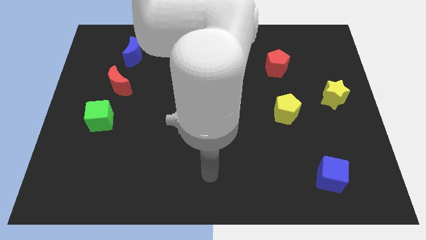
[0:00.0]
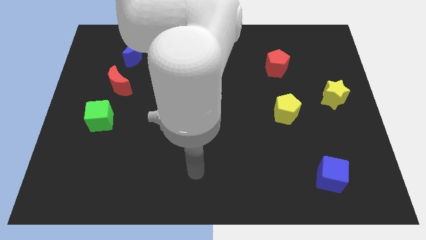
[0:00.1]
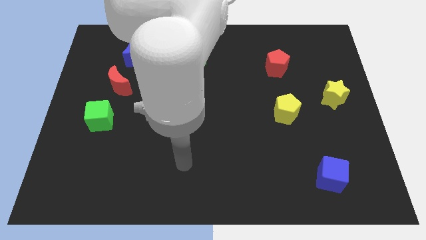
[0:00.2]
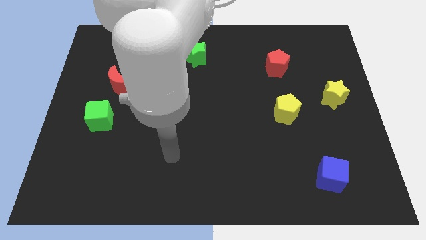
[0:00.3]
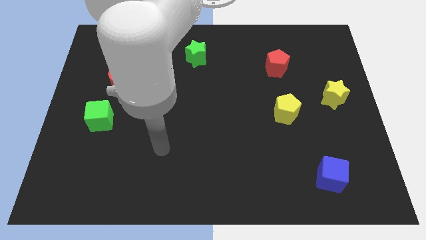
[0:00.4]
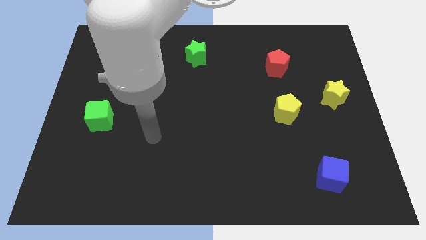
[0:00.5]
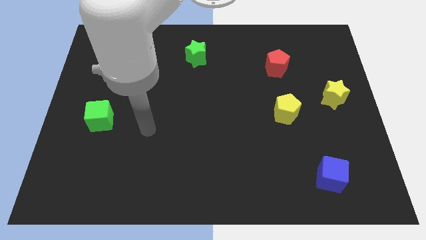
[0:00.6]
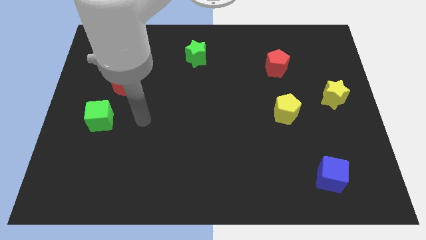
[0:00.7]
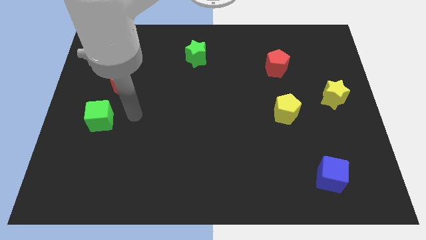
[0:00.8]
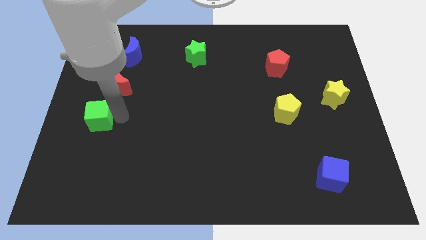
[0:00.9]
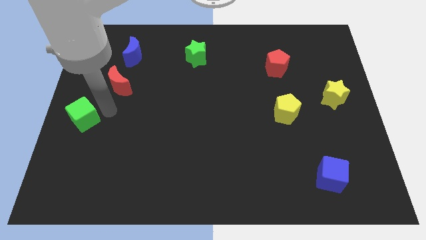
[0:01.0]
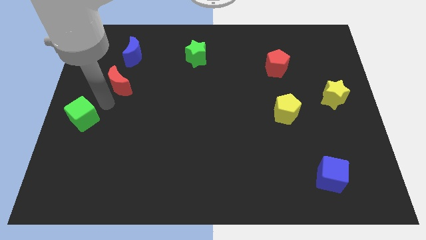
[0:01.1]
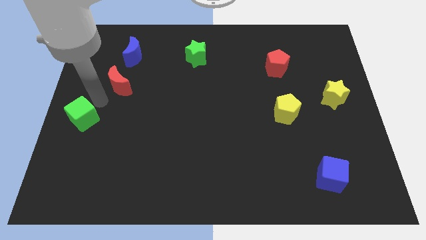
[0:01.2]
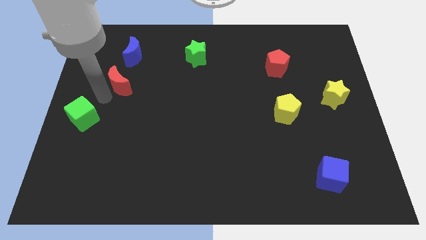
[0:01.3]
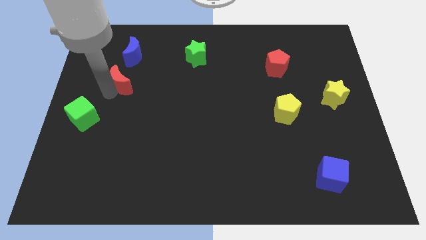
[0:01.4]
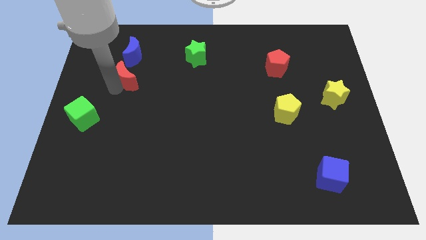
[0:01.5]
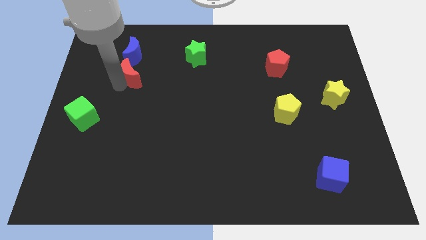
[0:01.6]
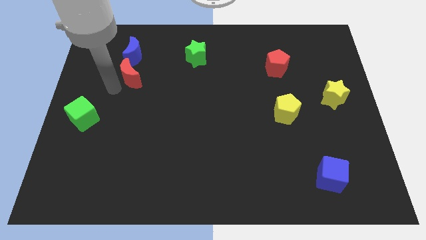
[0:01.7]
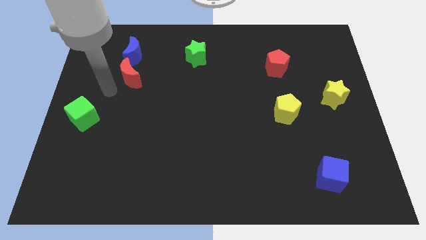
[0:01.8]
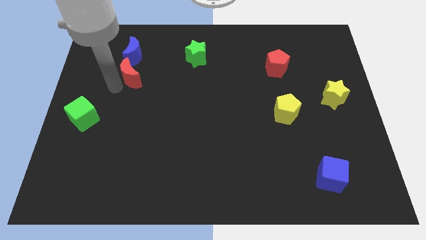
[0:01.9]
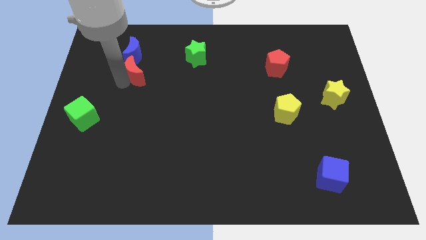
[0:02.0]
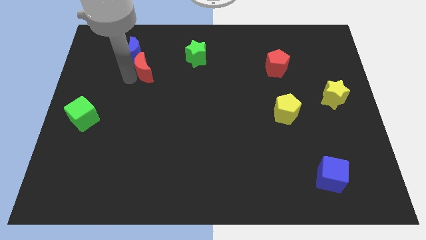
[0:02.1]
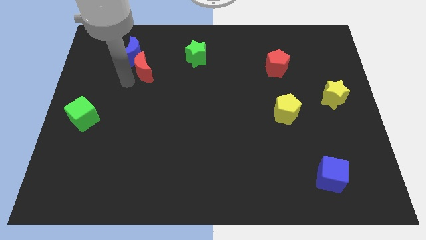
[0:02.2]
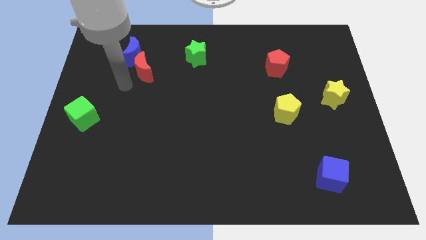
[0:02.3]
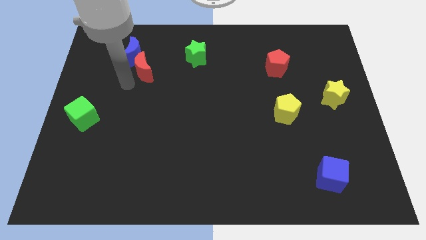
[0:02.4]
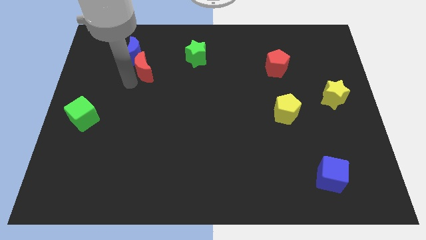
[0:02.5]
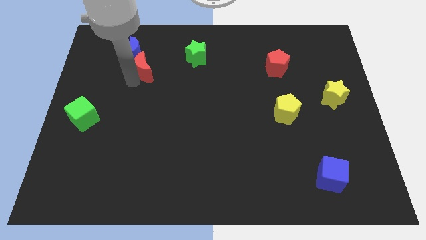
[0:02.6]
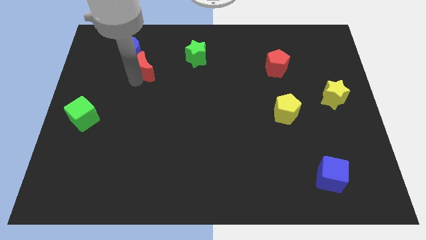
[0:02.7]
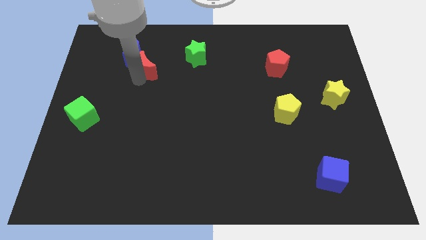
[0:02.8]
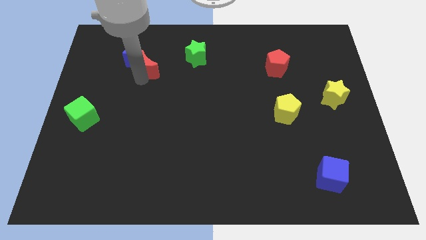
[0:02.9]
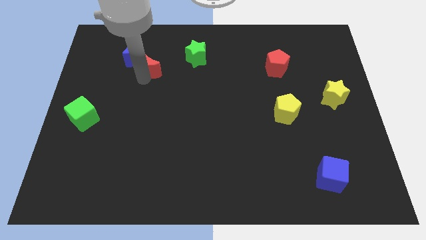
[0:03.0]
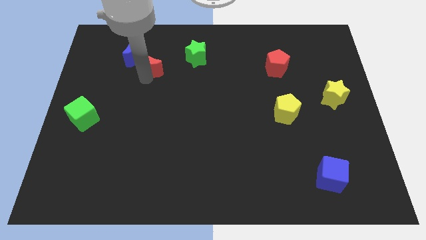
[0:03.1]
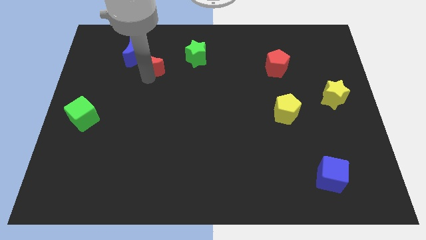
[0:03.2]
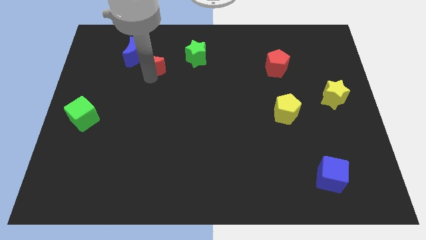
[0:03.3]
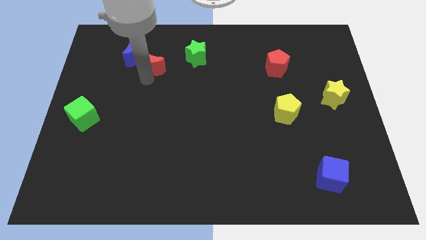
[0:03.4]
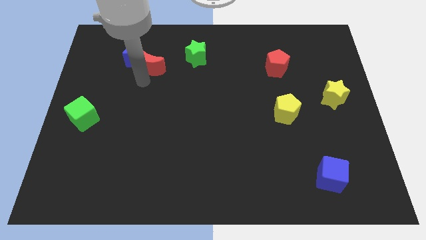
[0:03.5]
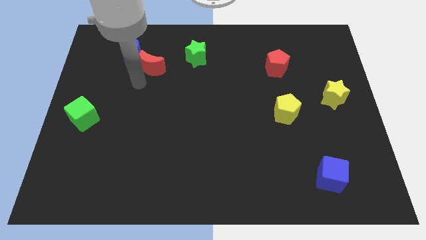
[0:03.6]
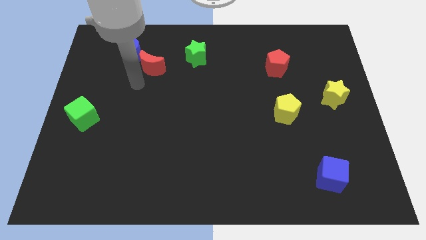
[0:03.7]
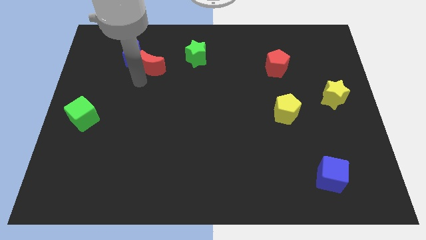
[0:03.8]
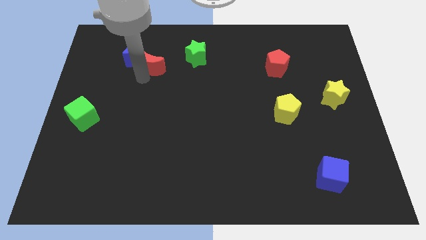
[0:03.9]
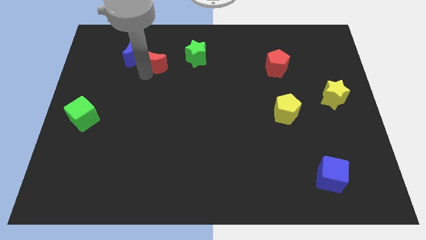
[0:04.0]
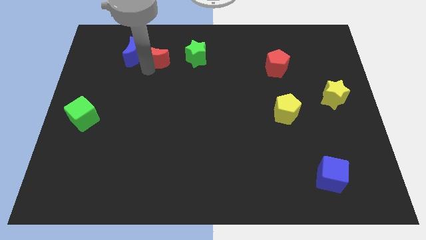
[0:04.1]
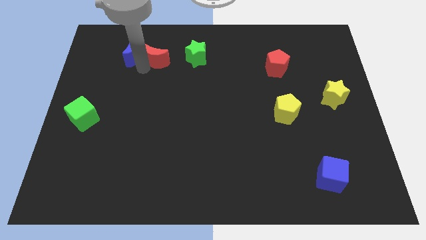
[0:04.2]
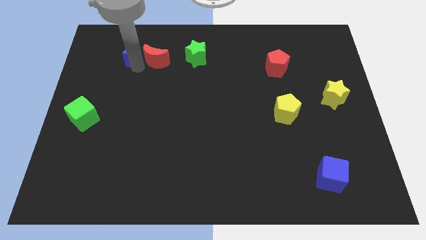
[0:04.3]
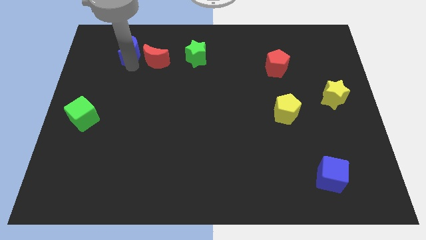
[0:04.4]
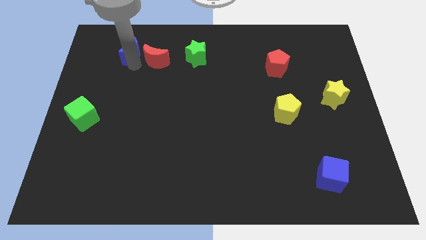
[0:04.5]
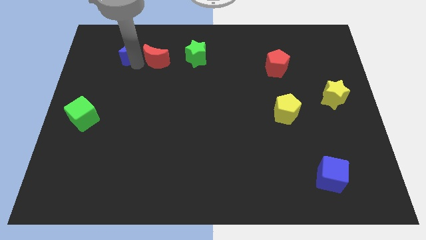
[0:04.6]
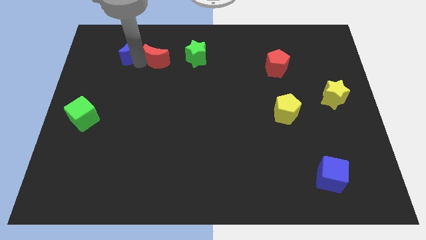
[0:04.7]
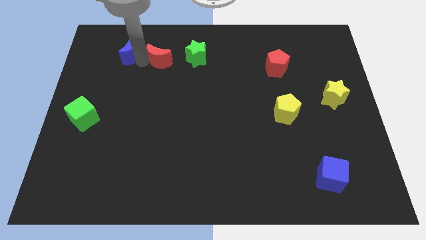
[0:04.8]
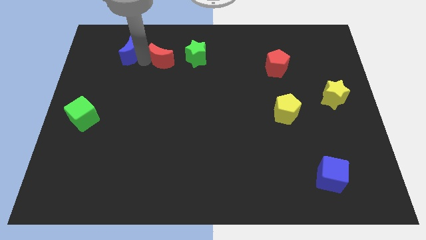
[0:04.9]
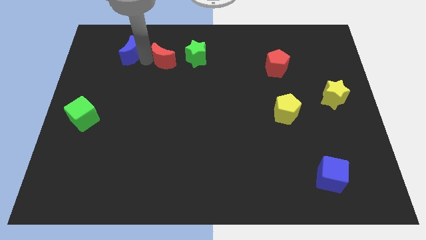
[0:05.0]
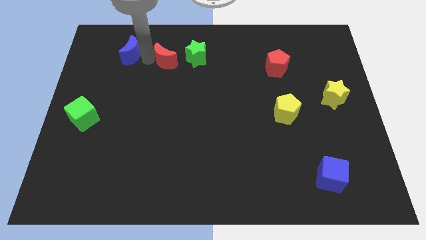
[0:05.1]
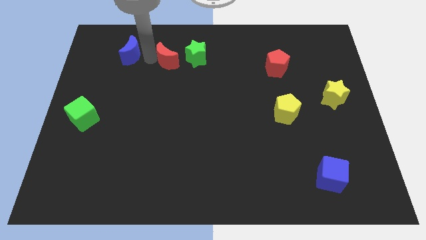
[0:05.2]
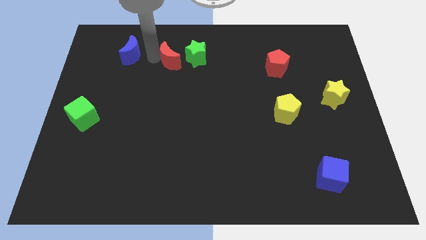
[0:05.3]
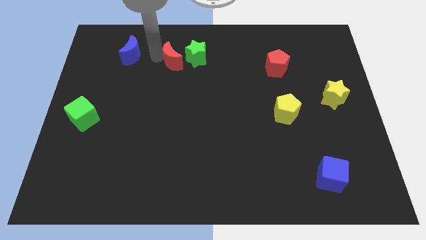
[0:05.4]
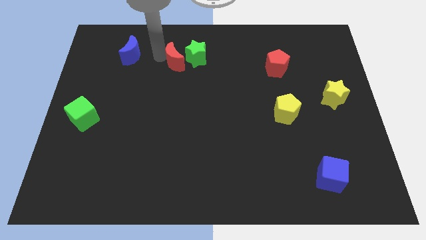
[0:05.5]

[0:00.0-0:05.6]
put the red moon close to the green star
